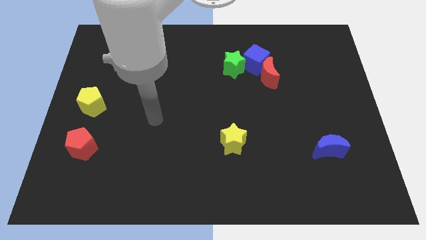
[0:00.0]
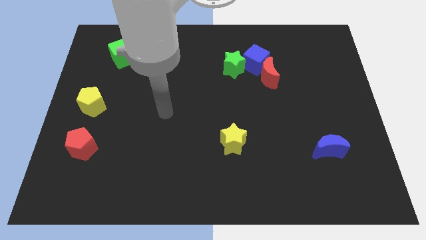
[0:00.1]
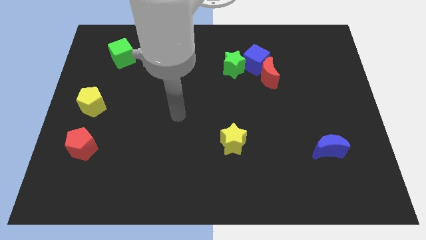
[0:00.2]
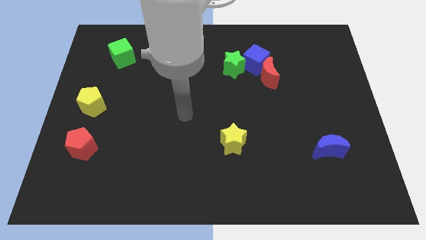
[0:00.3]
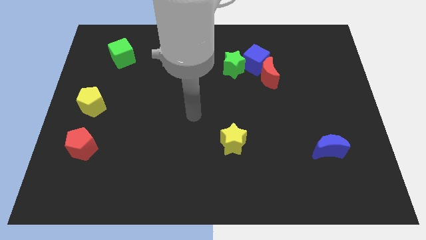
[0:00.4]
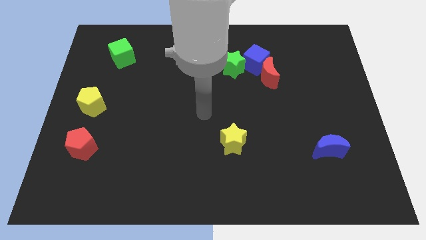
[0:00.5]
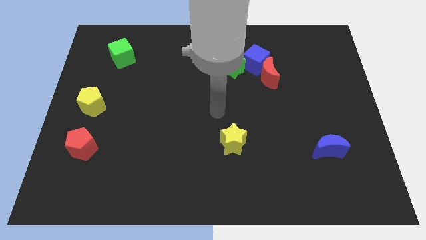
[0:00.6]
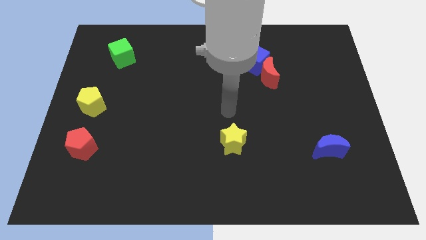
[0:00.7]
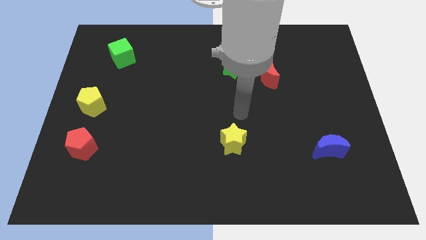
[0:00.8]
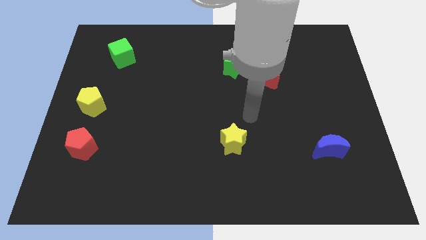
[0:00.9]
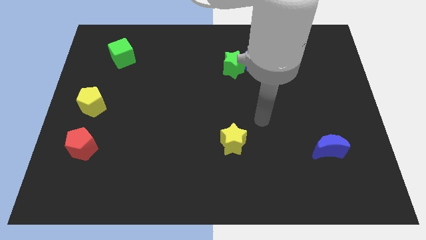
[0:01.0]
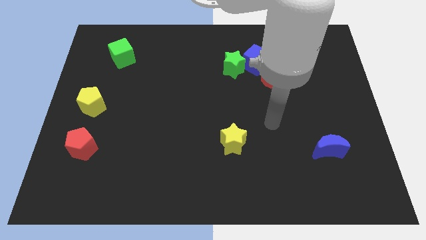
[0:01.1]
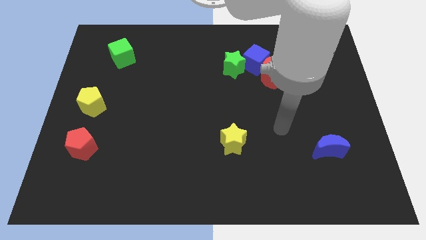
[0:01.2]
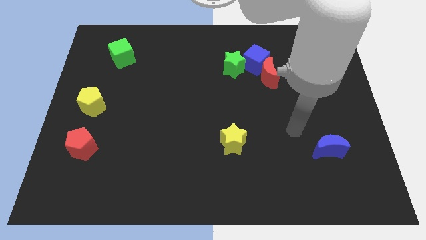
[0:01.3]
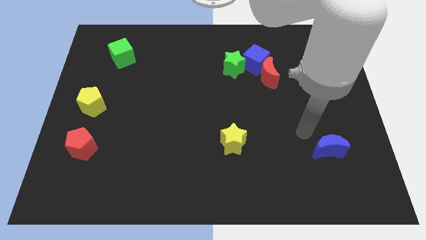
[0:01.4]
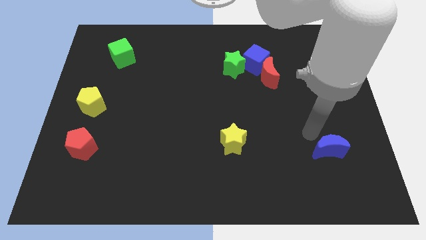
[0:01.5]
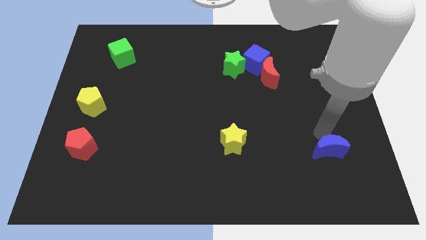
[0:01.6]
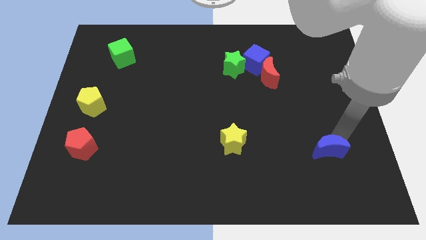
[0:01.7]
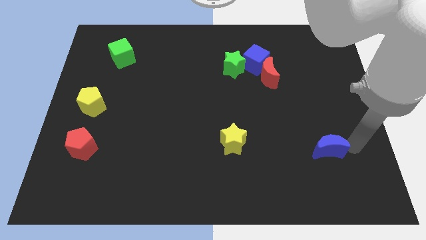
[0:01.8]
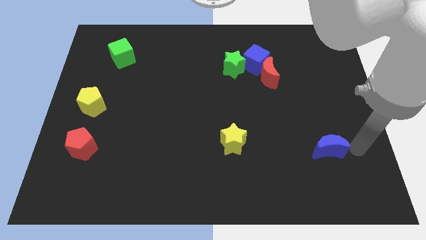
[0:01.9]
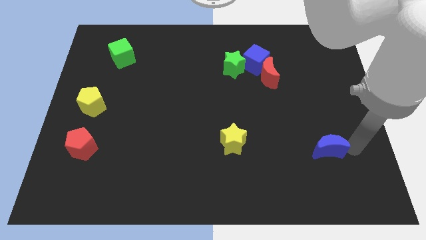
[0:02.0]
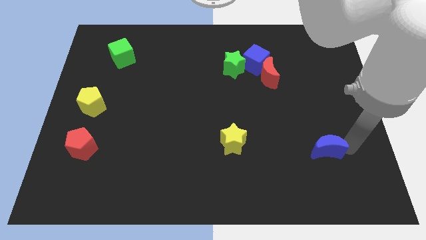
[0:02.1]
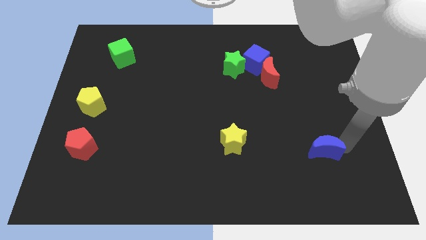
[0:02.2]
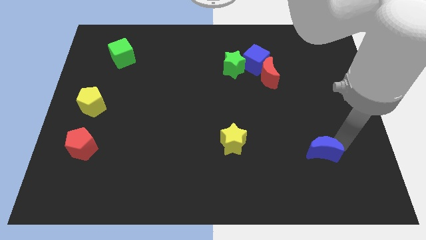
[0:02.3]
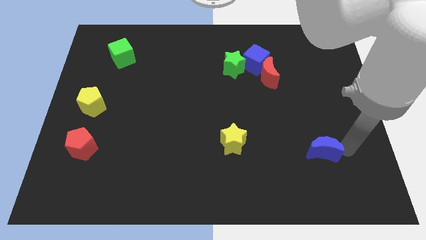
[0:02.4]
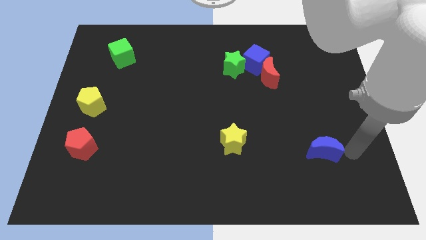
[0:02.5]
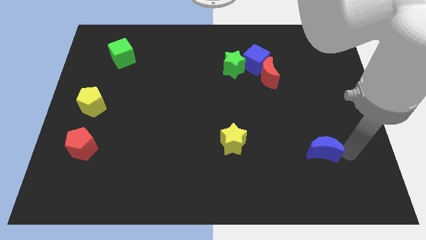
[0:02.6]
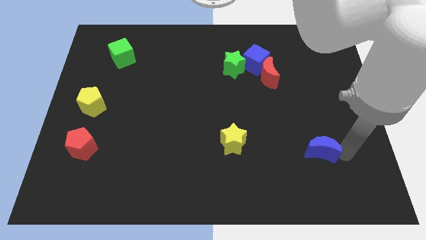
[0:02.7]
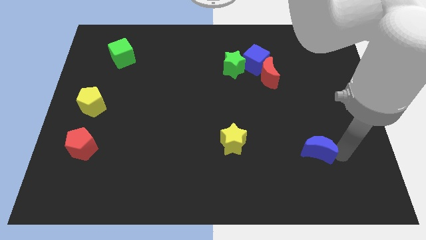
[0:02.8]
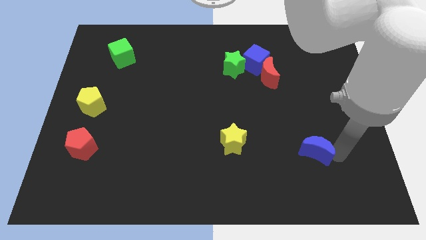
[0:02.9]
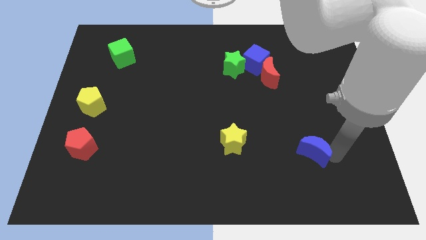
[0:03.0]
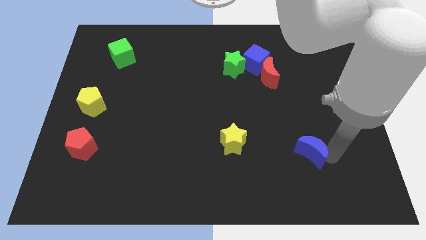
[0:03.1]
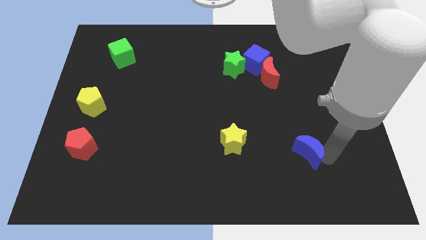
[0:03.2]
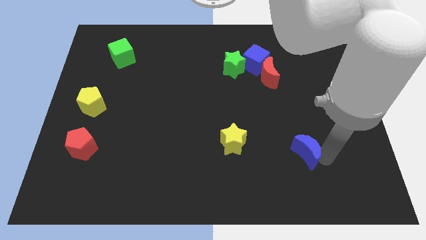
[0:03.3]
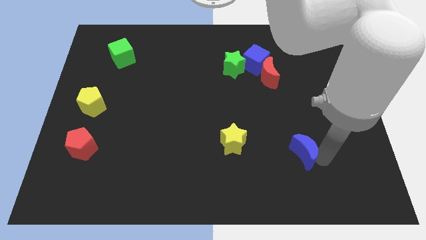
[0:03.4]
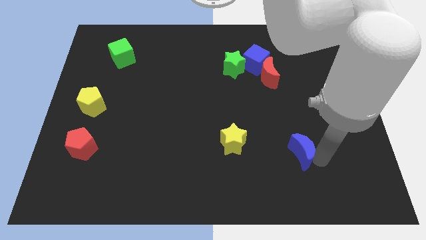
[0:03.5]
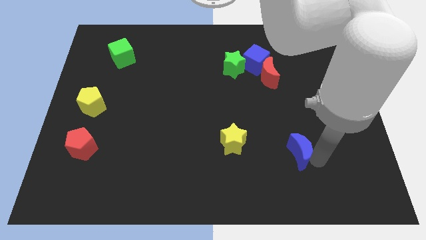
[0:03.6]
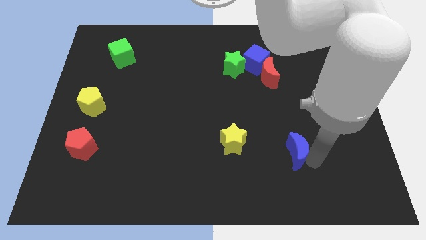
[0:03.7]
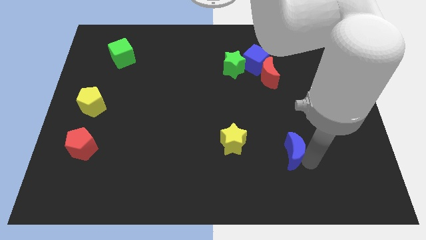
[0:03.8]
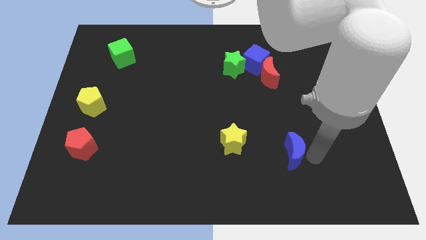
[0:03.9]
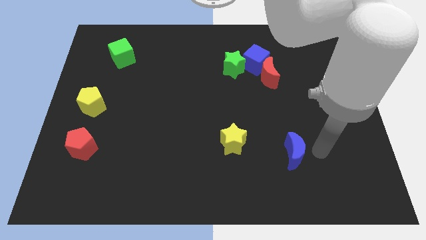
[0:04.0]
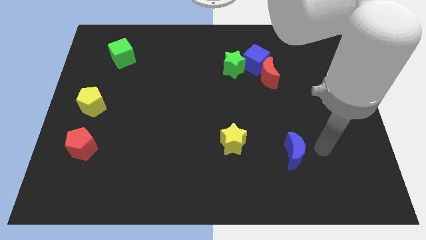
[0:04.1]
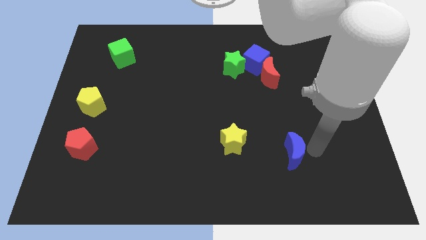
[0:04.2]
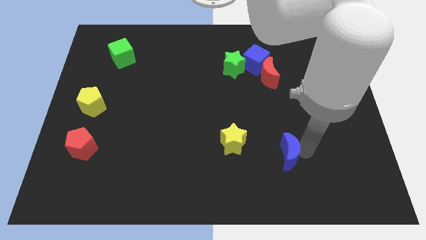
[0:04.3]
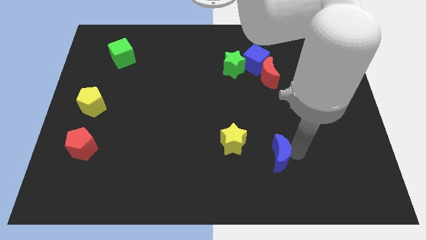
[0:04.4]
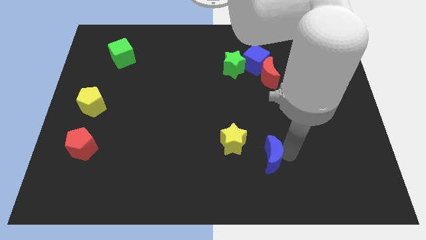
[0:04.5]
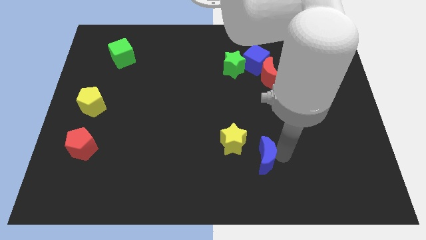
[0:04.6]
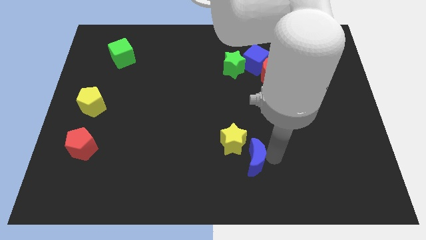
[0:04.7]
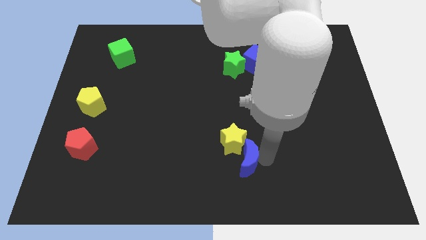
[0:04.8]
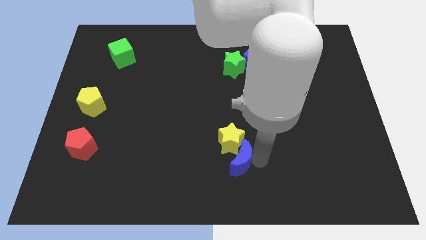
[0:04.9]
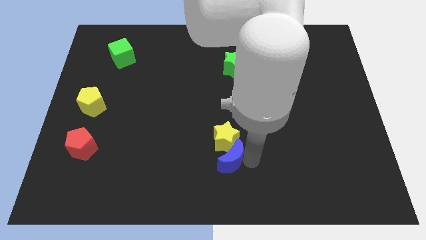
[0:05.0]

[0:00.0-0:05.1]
push the blue moon to the bottom left of the yellow star

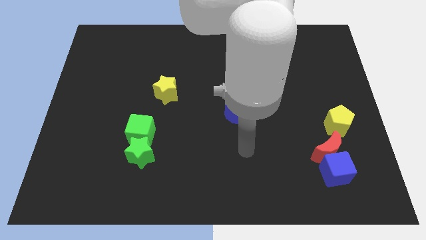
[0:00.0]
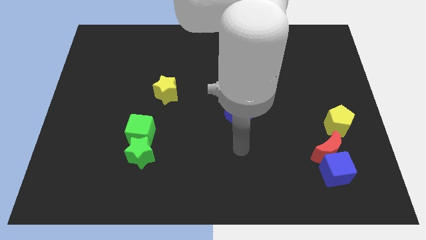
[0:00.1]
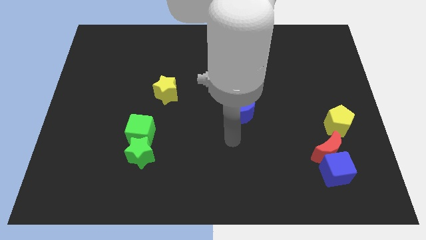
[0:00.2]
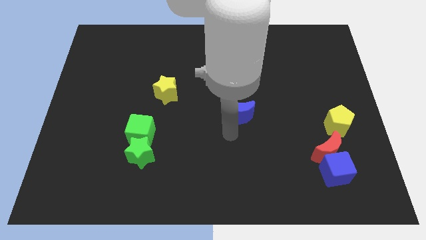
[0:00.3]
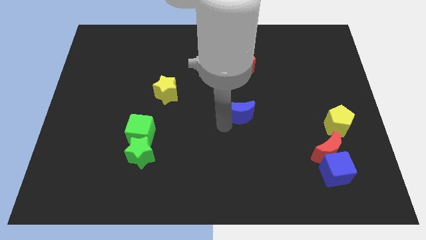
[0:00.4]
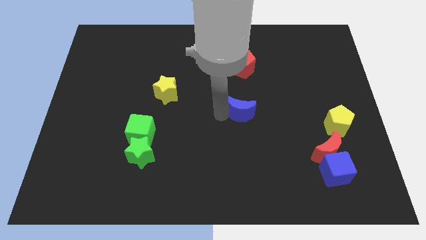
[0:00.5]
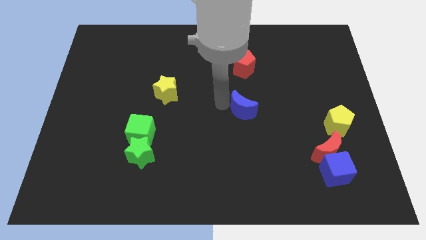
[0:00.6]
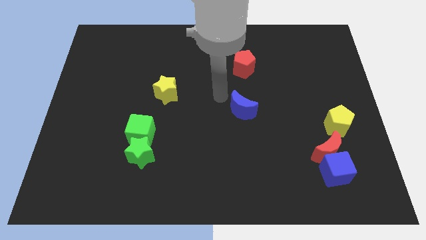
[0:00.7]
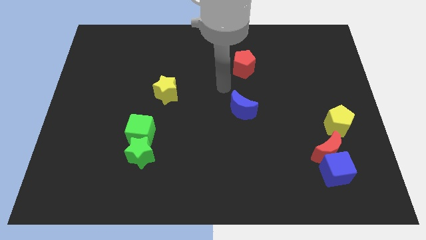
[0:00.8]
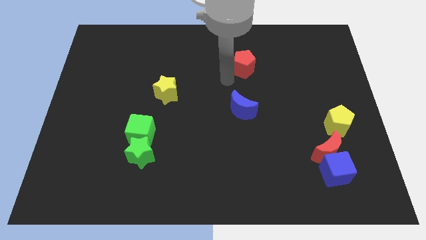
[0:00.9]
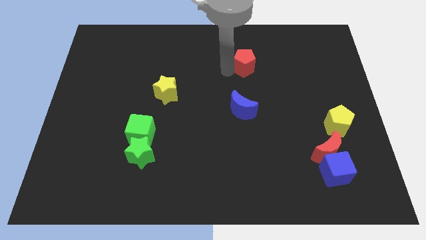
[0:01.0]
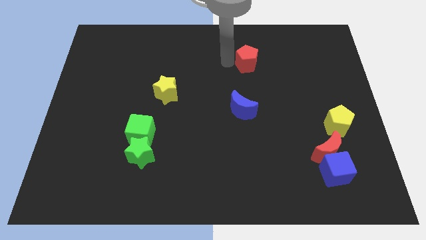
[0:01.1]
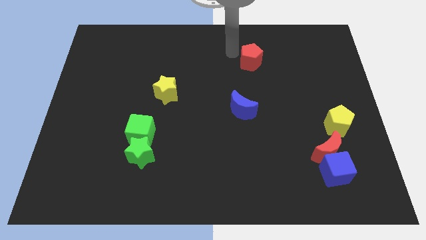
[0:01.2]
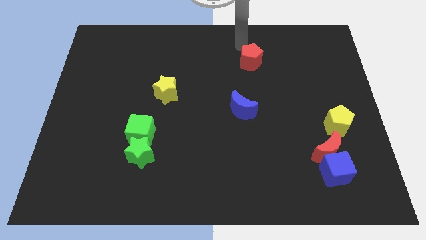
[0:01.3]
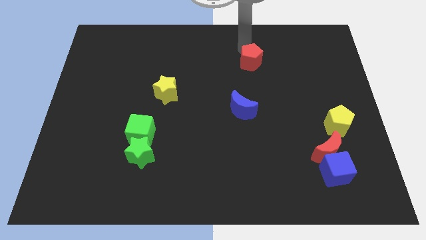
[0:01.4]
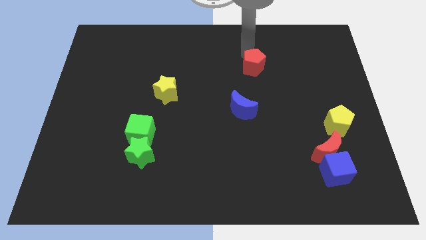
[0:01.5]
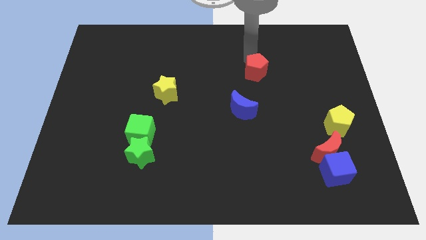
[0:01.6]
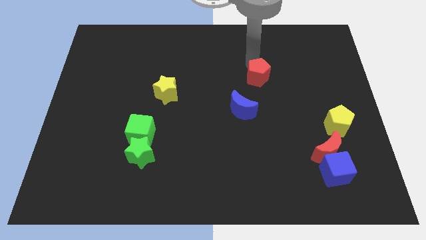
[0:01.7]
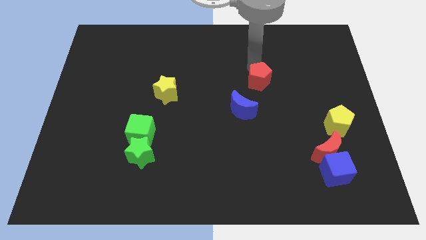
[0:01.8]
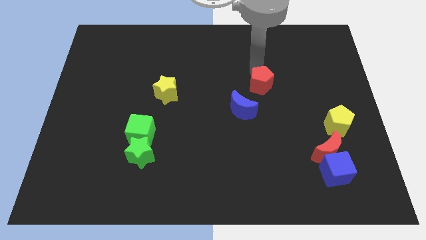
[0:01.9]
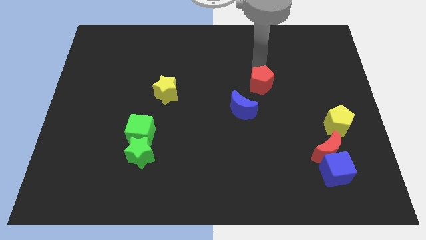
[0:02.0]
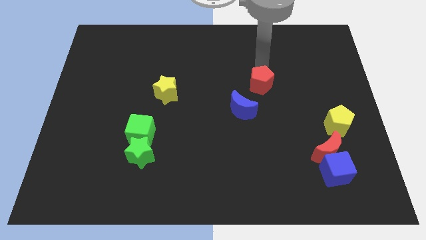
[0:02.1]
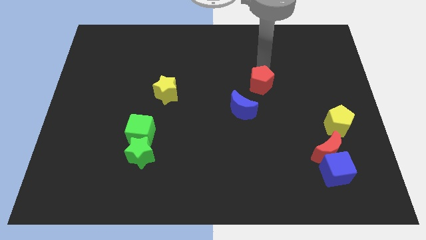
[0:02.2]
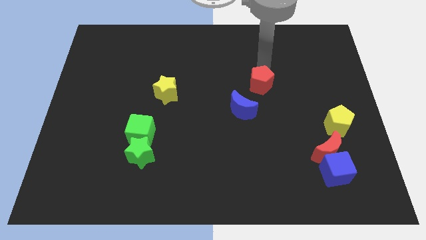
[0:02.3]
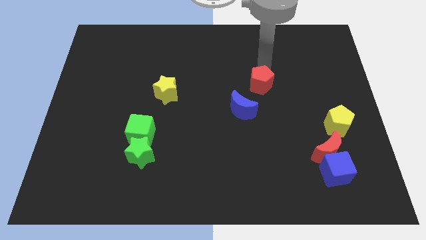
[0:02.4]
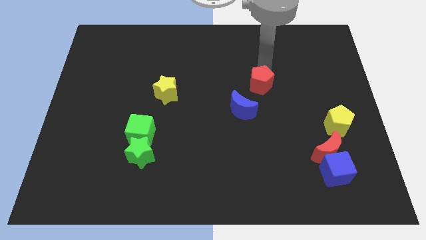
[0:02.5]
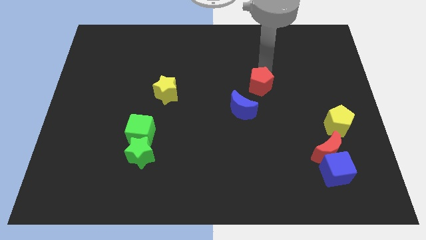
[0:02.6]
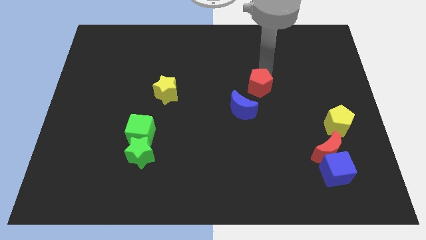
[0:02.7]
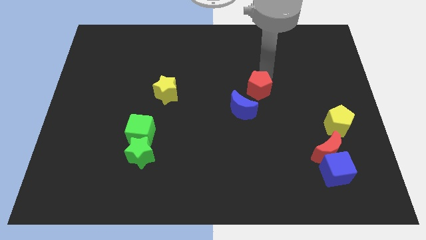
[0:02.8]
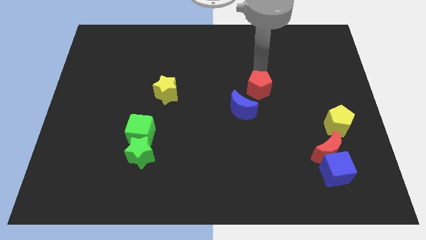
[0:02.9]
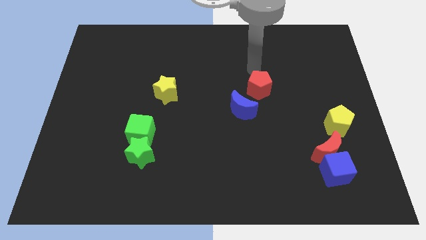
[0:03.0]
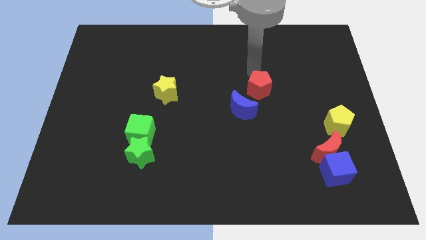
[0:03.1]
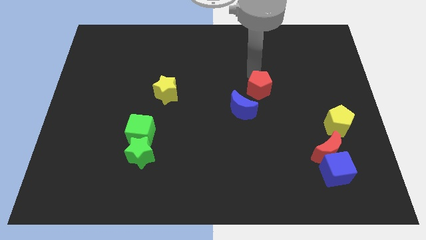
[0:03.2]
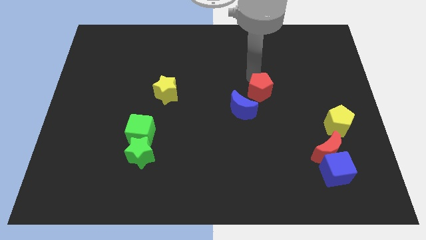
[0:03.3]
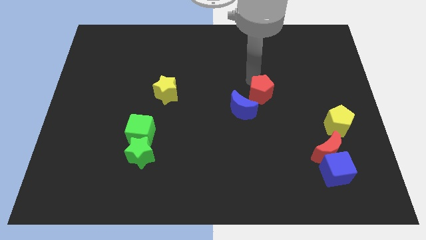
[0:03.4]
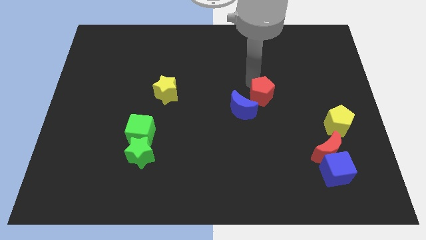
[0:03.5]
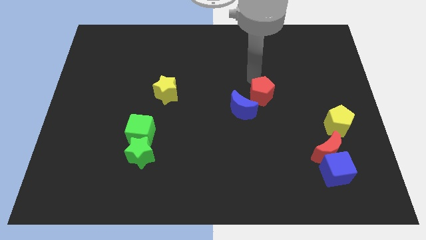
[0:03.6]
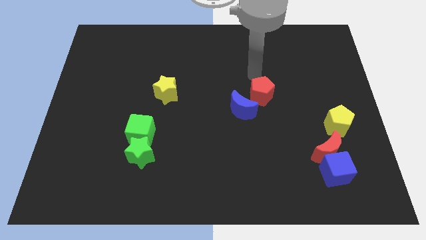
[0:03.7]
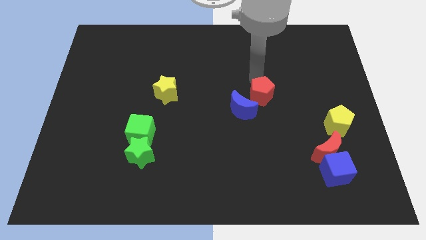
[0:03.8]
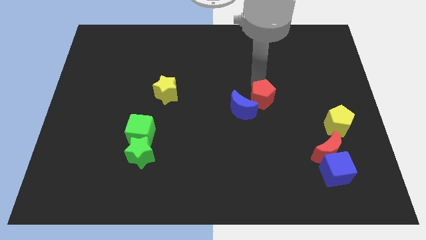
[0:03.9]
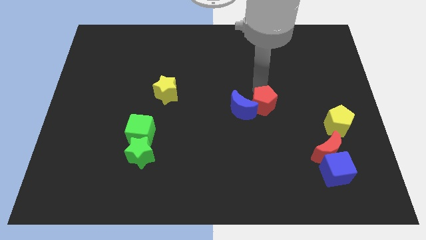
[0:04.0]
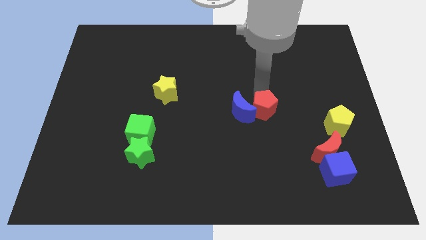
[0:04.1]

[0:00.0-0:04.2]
put the red pentagon to the bottom right of the blue moon
